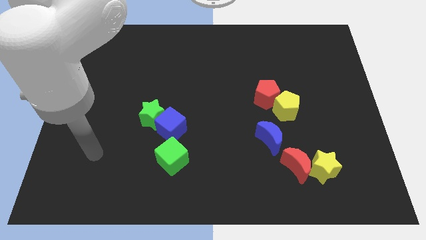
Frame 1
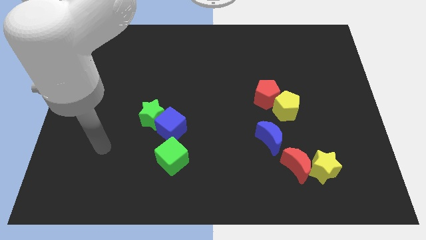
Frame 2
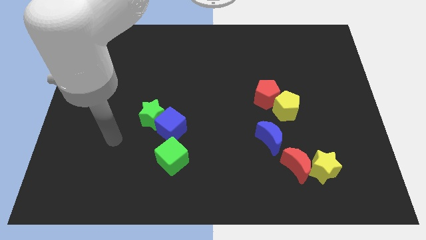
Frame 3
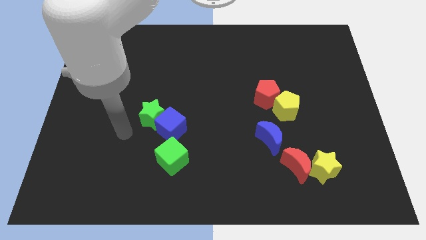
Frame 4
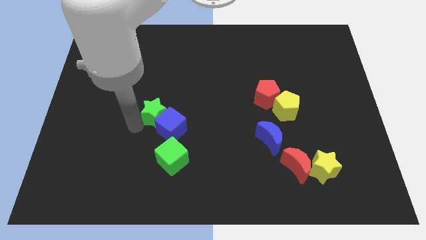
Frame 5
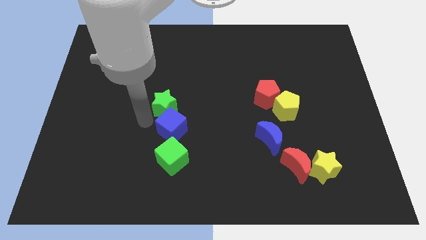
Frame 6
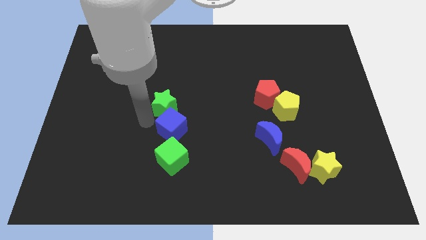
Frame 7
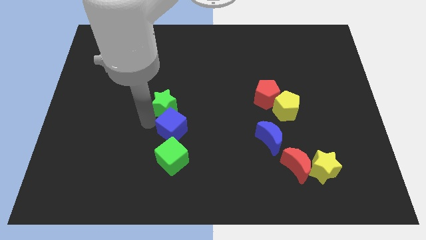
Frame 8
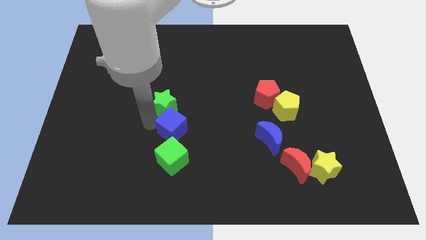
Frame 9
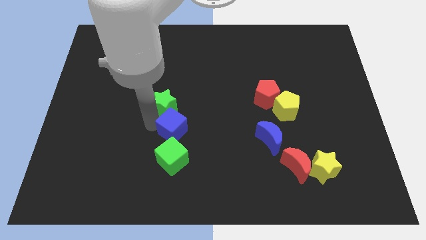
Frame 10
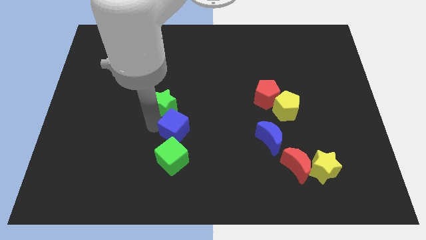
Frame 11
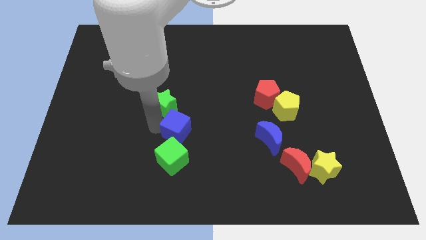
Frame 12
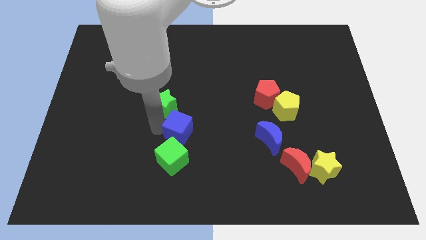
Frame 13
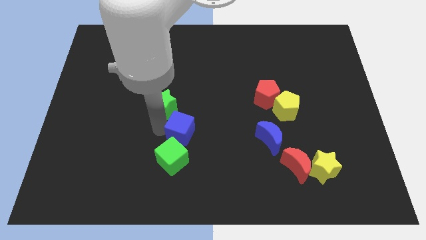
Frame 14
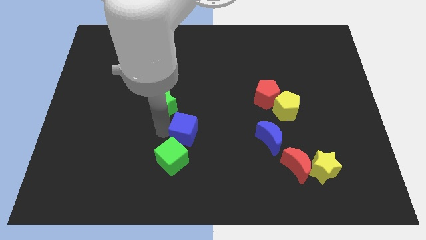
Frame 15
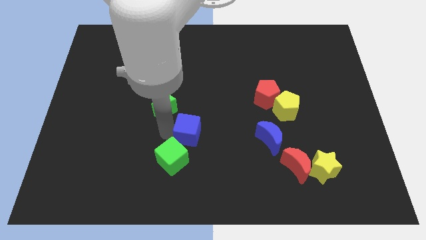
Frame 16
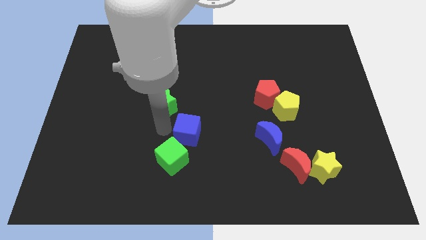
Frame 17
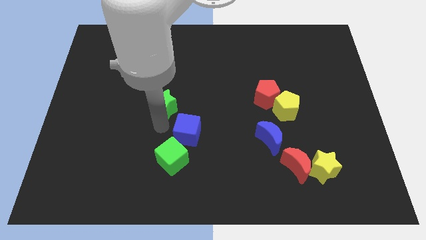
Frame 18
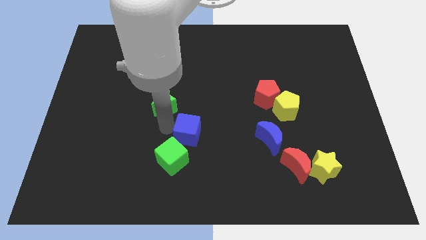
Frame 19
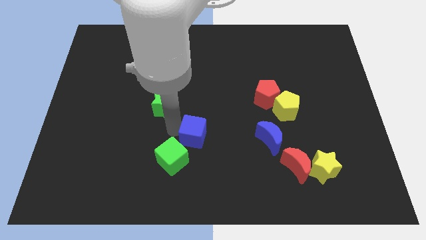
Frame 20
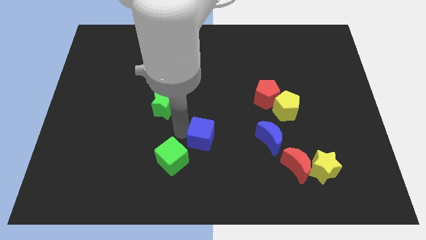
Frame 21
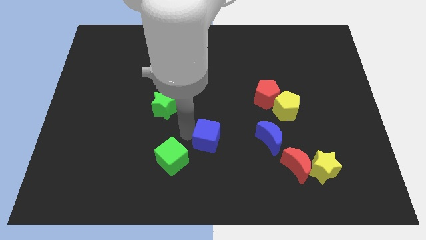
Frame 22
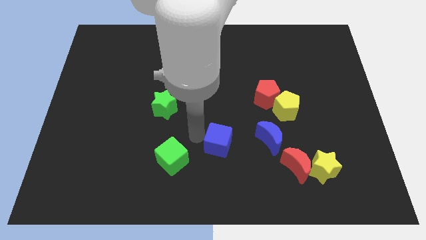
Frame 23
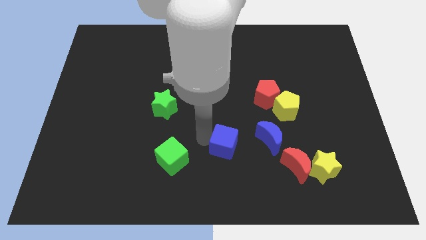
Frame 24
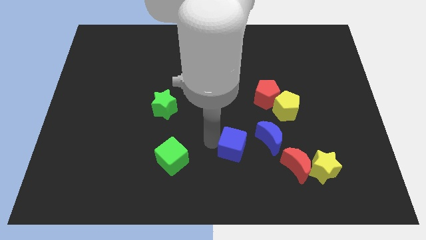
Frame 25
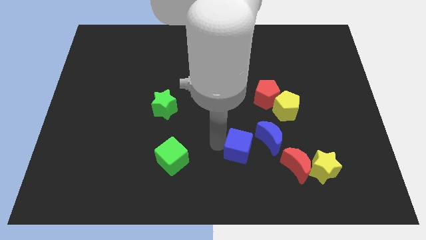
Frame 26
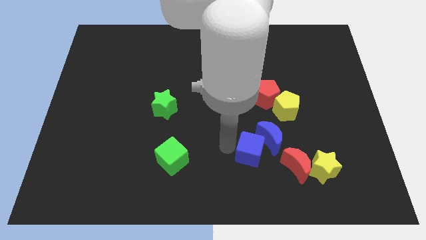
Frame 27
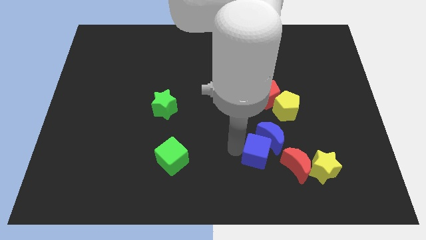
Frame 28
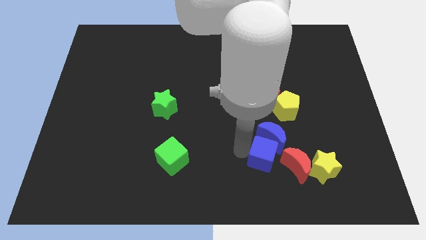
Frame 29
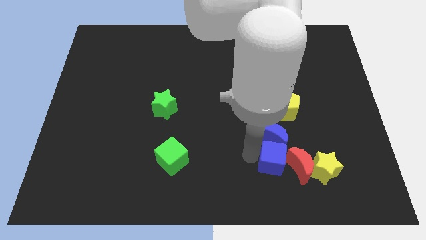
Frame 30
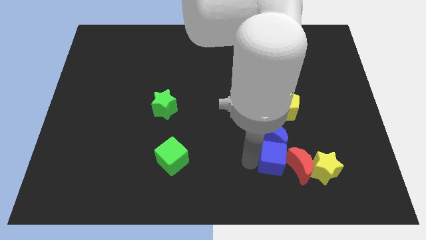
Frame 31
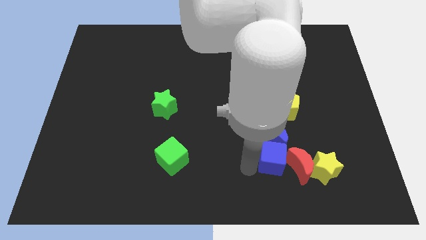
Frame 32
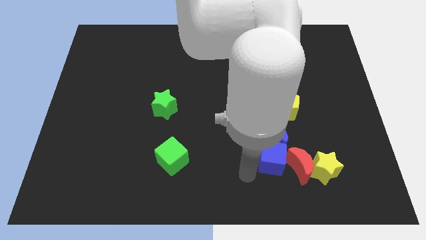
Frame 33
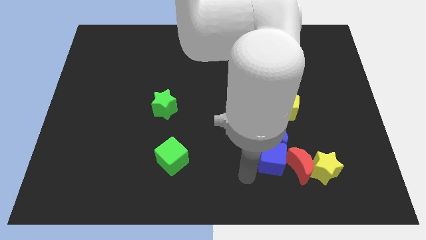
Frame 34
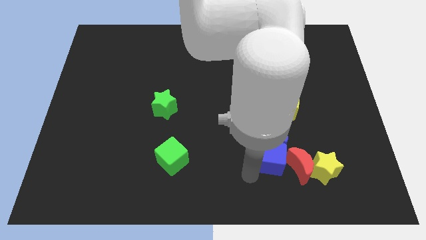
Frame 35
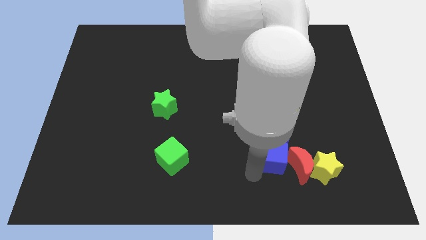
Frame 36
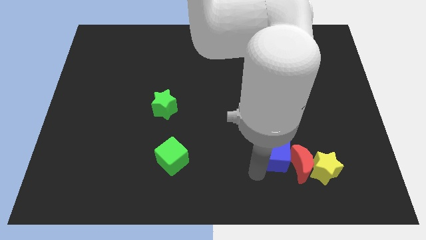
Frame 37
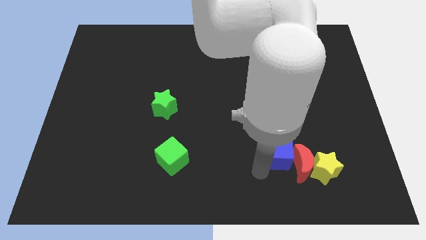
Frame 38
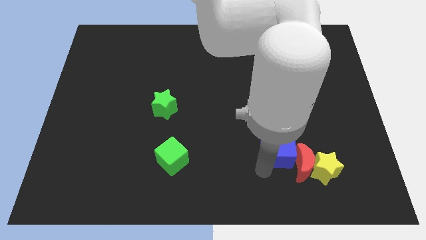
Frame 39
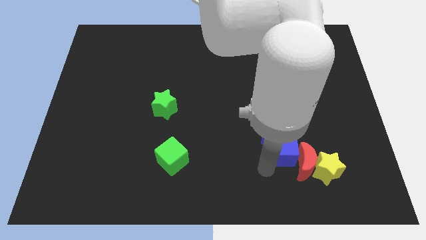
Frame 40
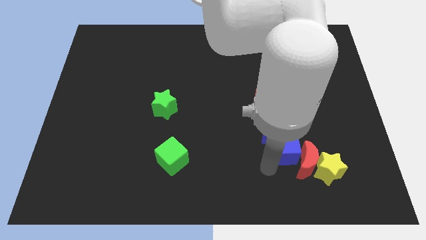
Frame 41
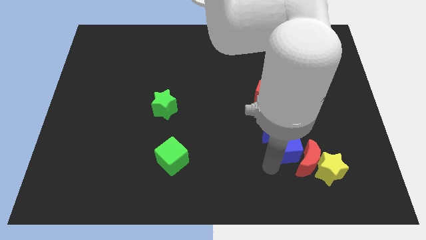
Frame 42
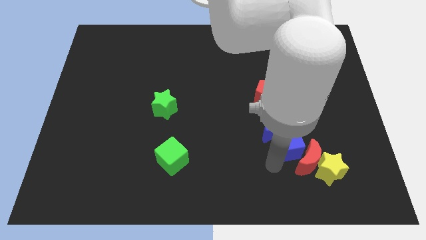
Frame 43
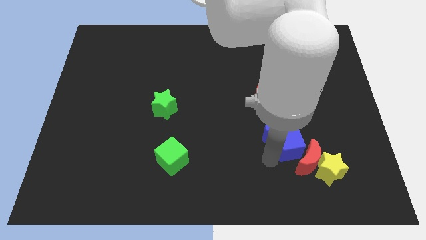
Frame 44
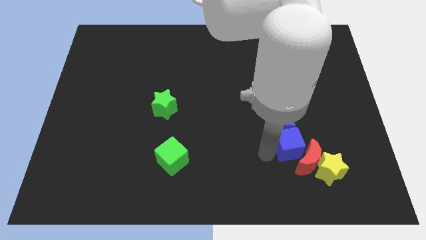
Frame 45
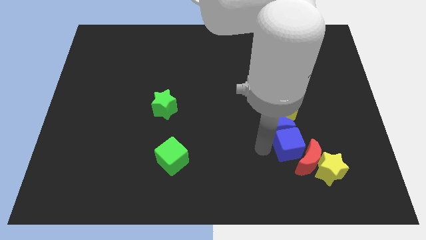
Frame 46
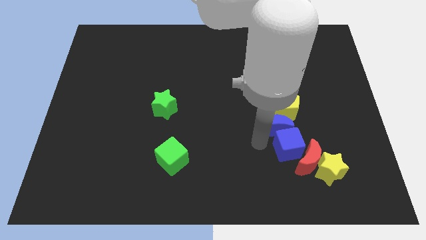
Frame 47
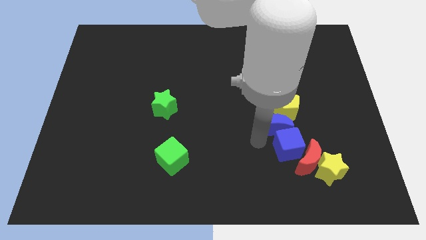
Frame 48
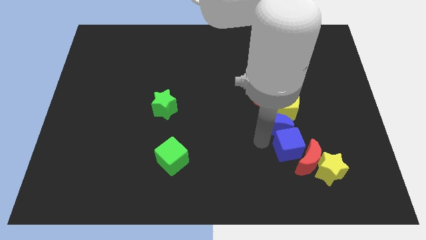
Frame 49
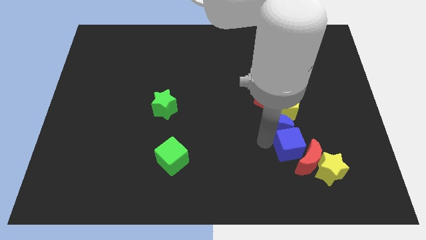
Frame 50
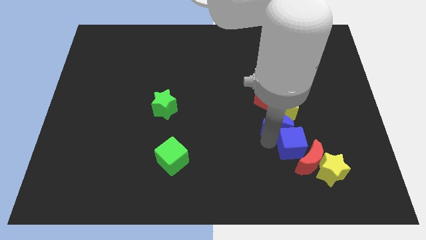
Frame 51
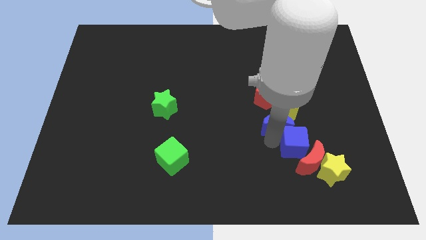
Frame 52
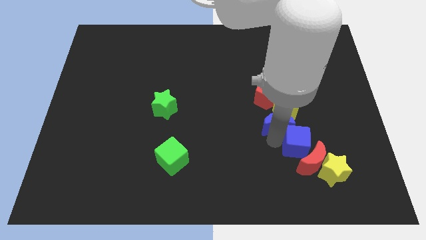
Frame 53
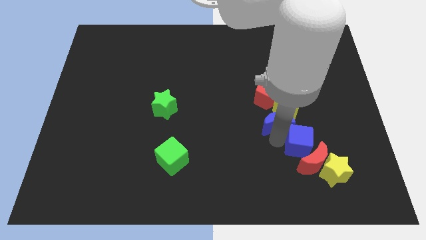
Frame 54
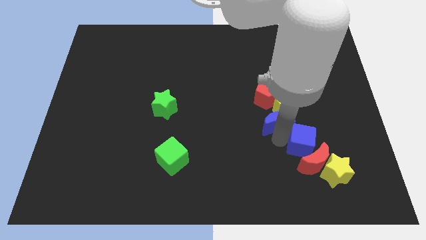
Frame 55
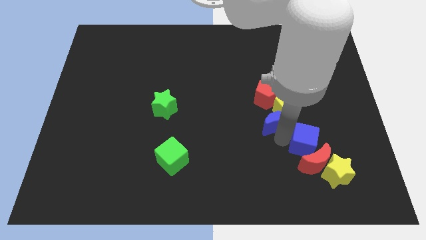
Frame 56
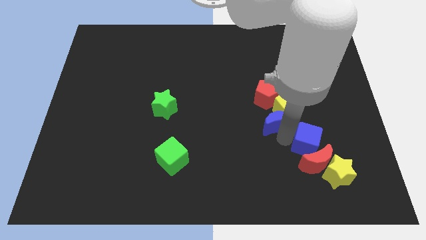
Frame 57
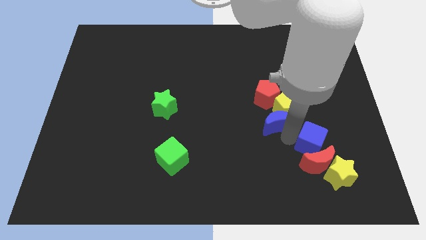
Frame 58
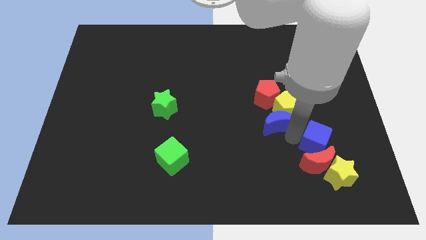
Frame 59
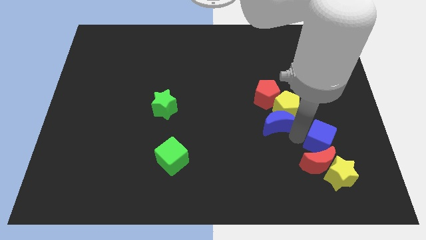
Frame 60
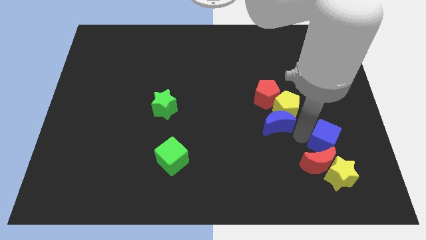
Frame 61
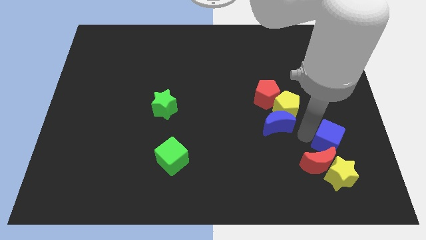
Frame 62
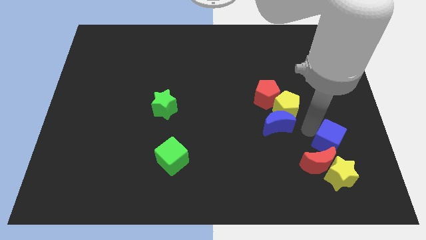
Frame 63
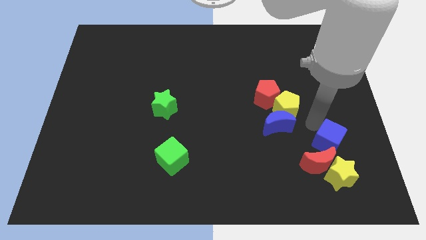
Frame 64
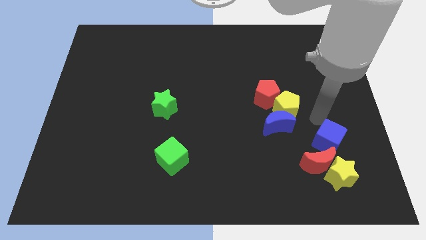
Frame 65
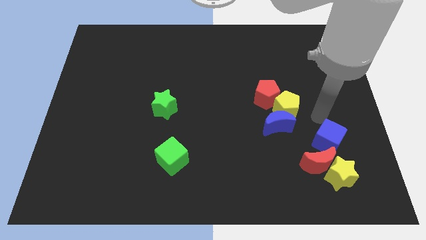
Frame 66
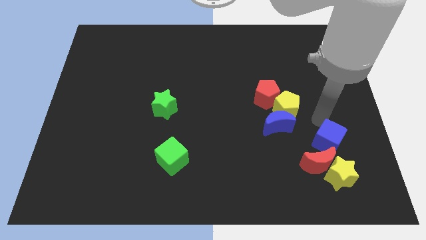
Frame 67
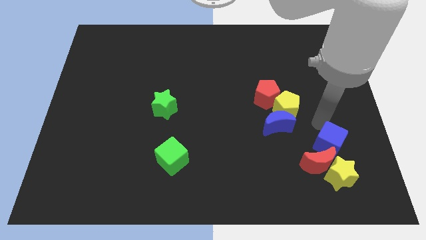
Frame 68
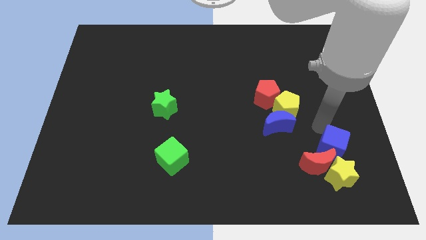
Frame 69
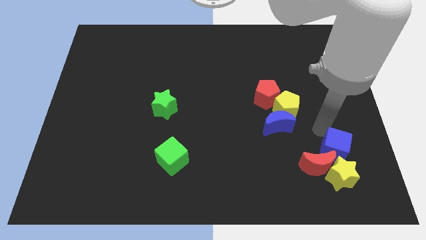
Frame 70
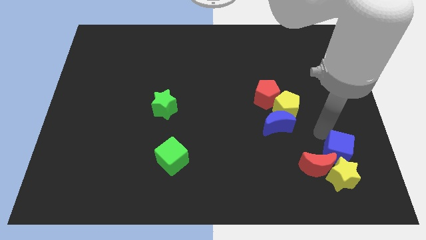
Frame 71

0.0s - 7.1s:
put the blue cube towards the yellow star
